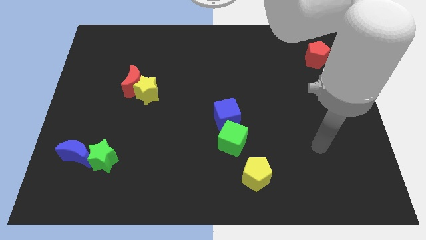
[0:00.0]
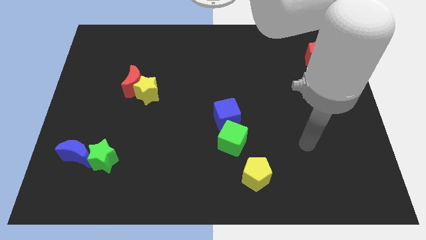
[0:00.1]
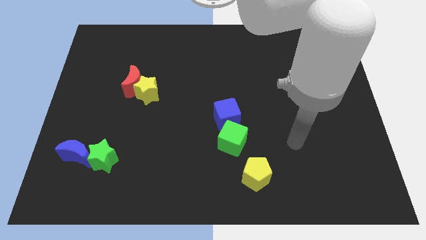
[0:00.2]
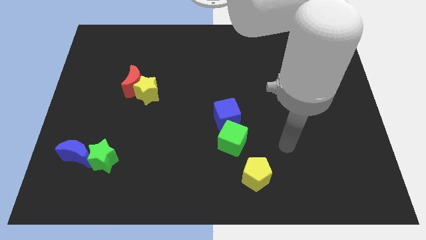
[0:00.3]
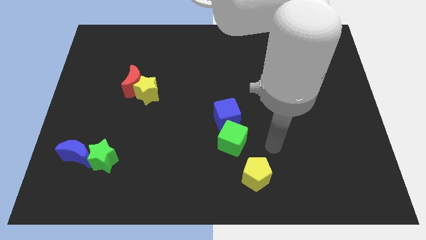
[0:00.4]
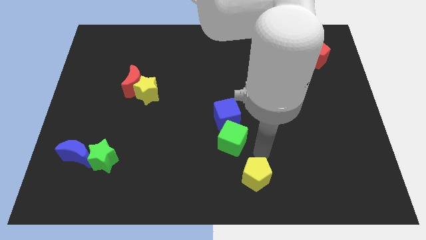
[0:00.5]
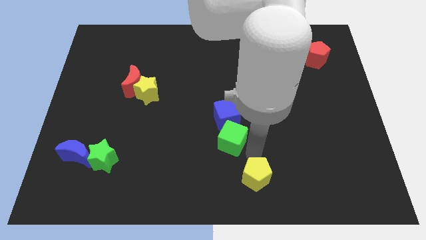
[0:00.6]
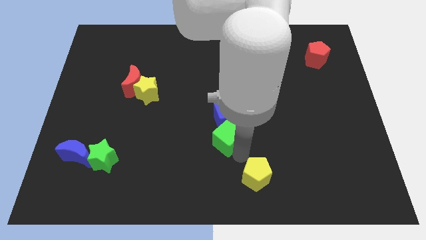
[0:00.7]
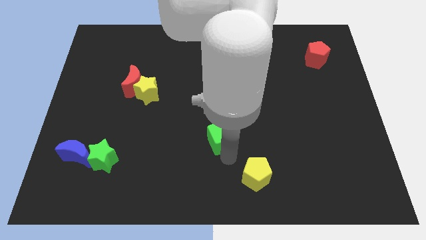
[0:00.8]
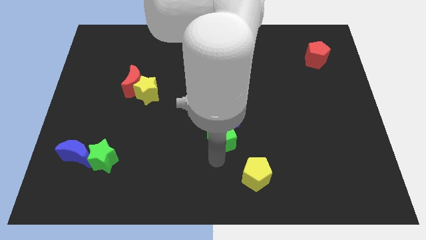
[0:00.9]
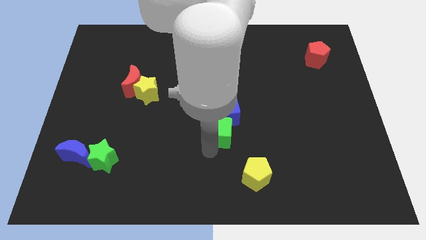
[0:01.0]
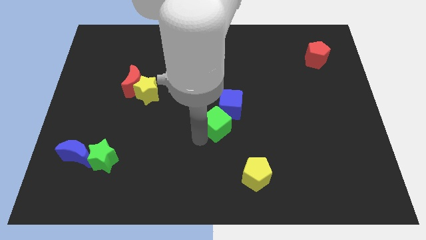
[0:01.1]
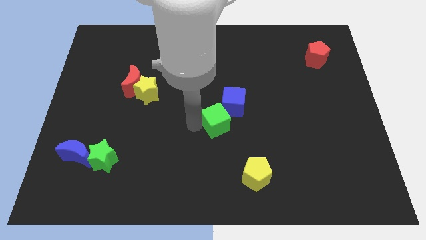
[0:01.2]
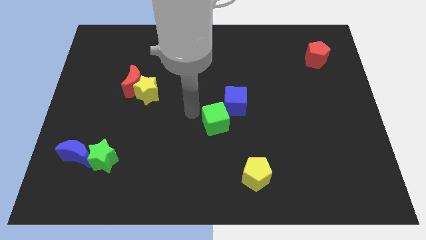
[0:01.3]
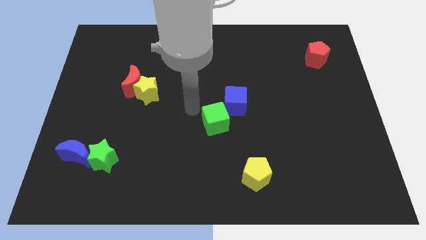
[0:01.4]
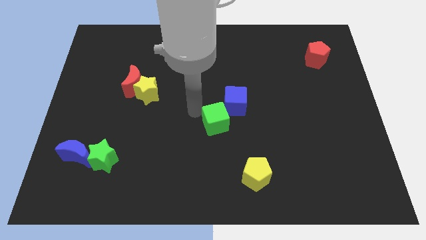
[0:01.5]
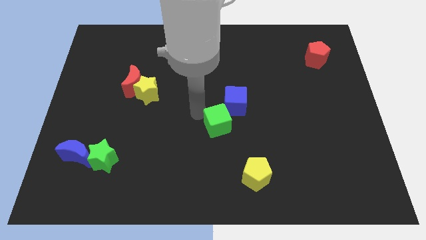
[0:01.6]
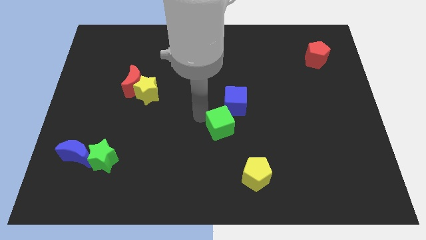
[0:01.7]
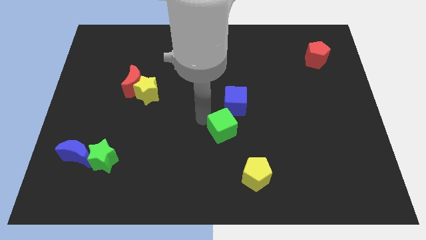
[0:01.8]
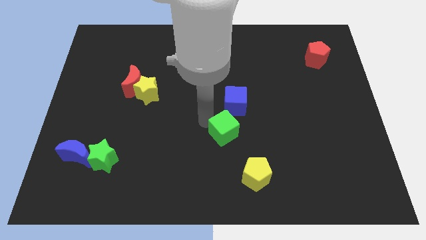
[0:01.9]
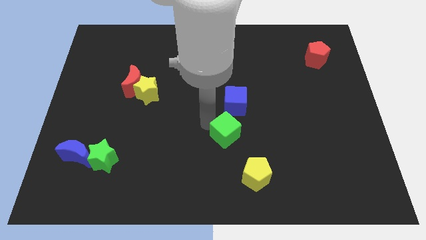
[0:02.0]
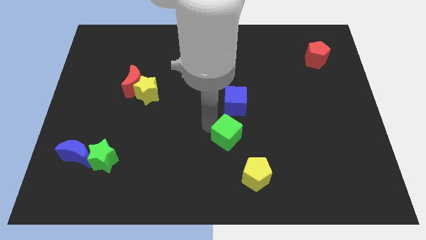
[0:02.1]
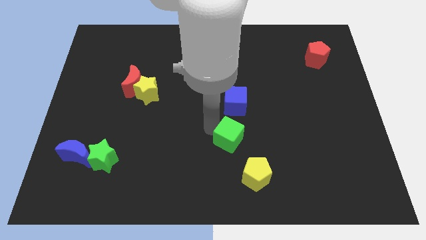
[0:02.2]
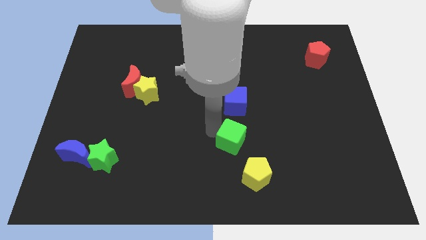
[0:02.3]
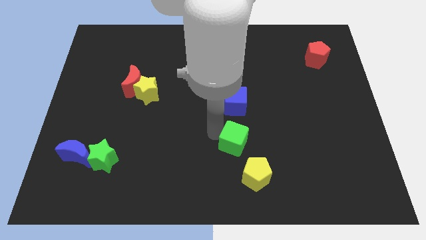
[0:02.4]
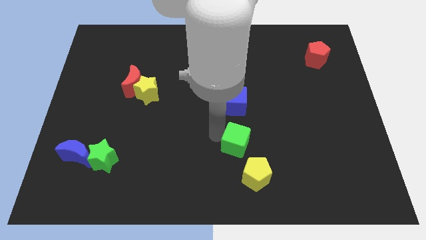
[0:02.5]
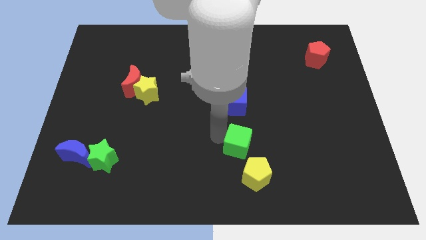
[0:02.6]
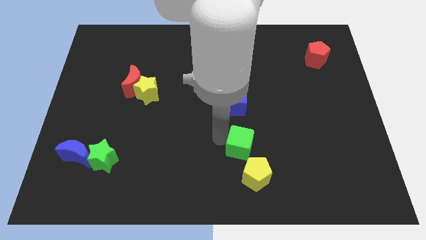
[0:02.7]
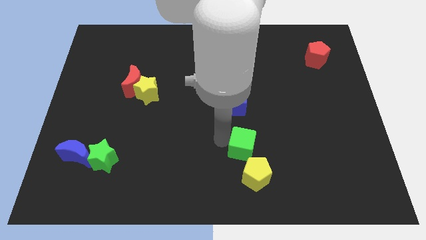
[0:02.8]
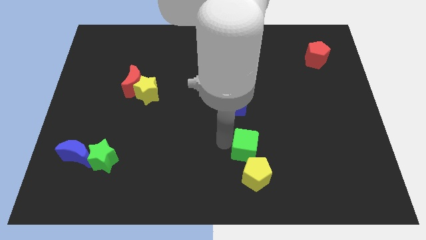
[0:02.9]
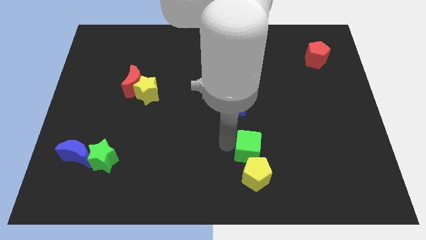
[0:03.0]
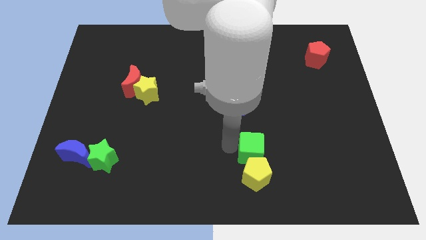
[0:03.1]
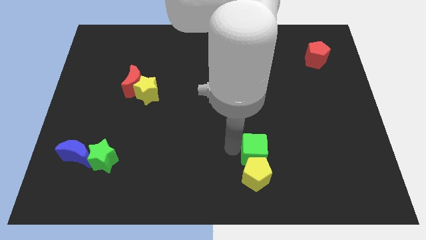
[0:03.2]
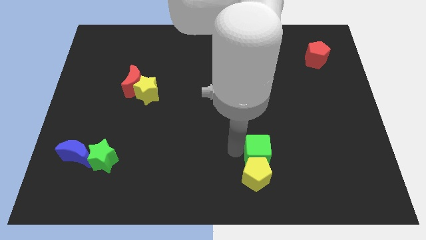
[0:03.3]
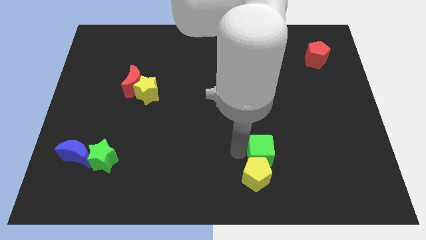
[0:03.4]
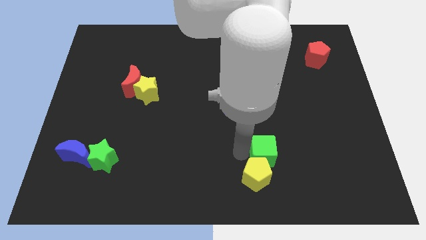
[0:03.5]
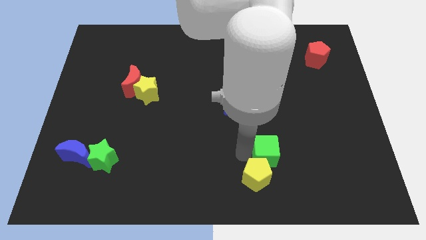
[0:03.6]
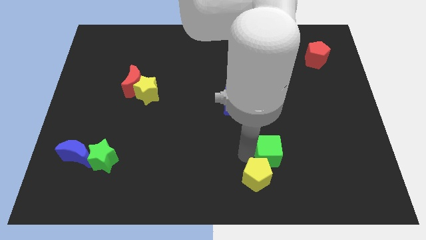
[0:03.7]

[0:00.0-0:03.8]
push the green cube to the right somewhat

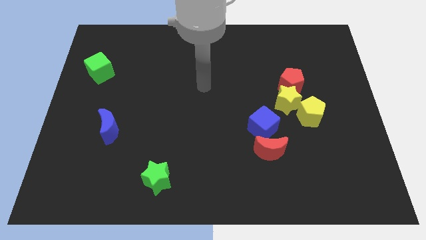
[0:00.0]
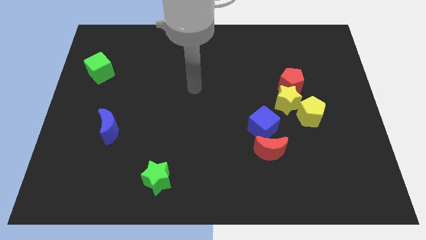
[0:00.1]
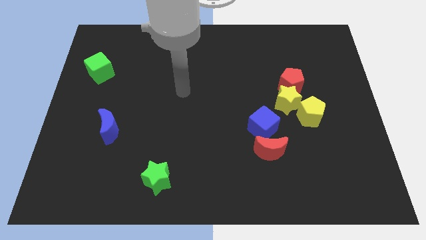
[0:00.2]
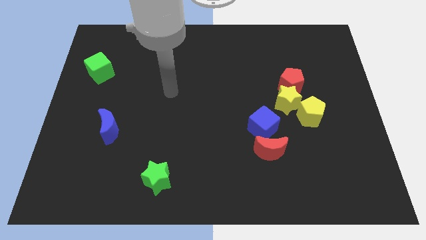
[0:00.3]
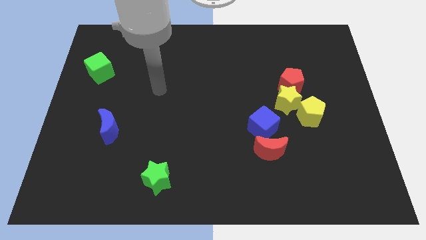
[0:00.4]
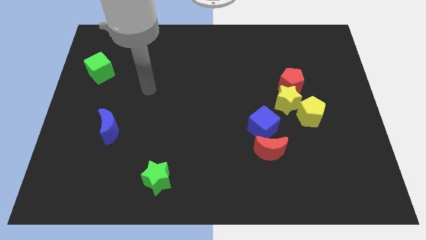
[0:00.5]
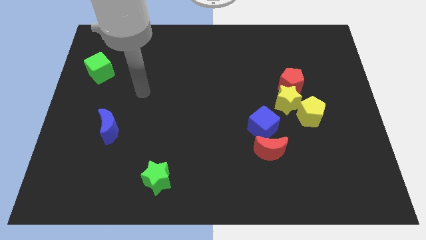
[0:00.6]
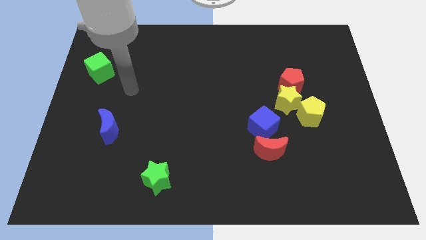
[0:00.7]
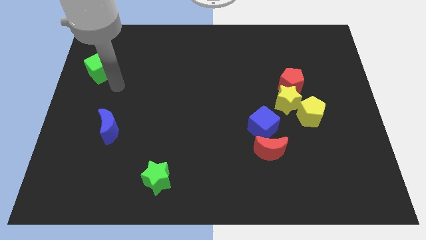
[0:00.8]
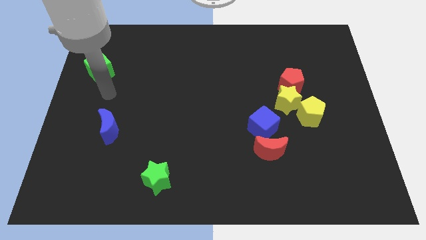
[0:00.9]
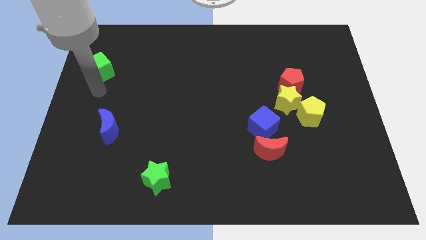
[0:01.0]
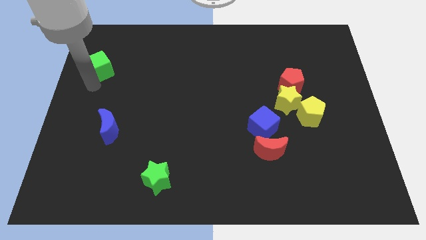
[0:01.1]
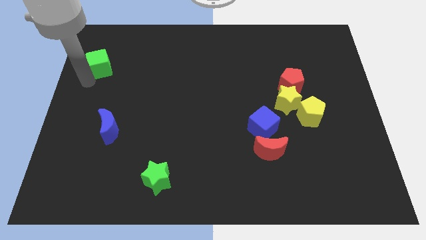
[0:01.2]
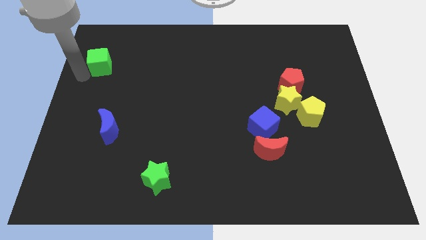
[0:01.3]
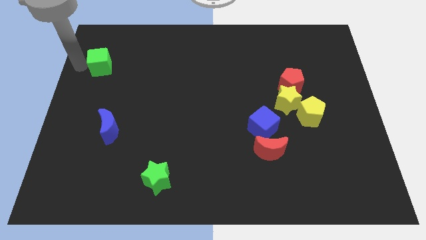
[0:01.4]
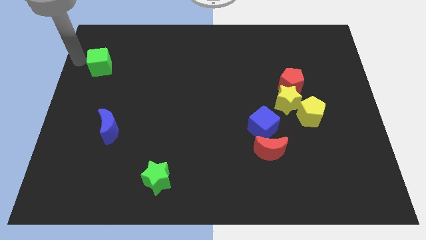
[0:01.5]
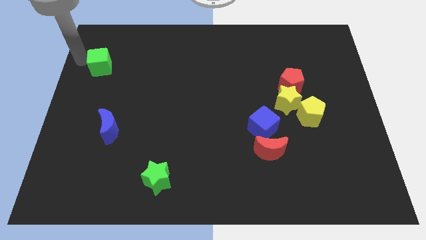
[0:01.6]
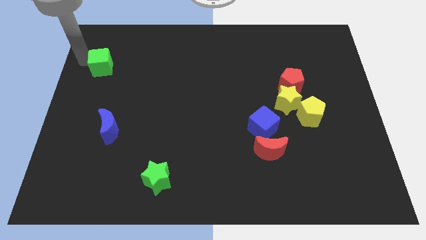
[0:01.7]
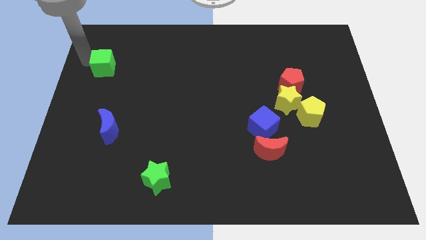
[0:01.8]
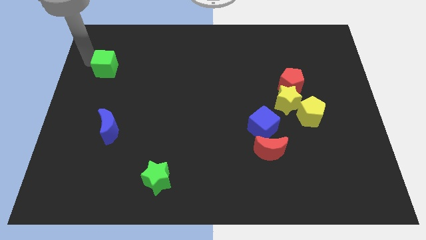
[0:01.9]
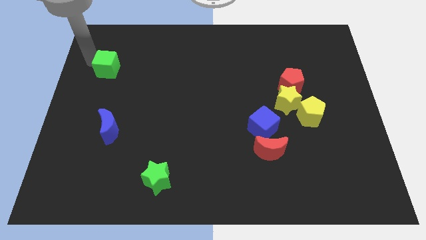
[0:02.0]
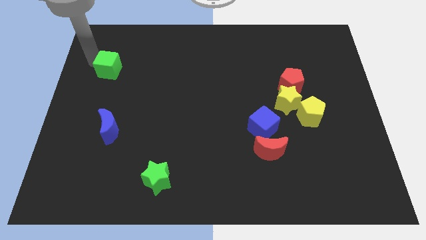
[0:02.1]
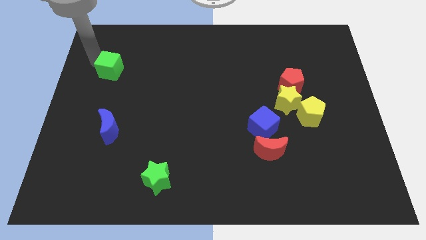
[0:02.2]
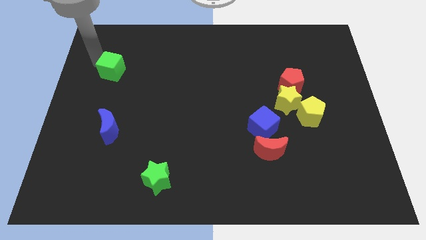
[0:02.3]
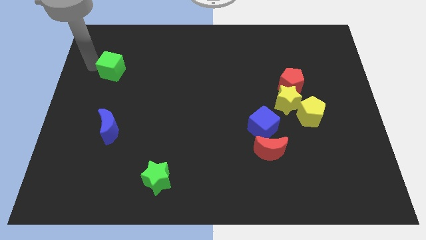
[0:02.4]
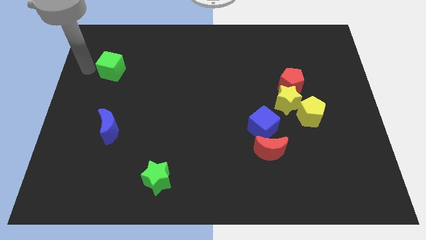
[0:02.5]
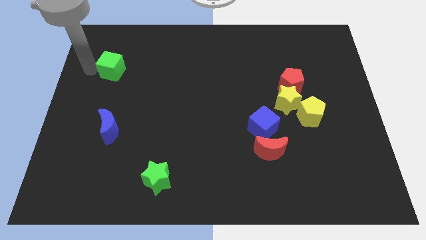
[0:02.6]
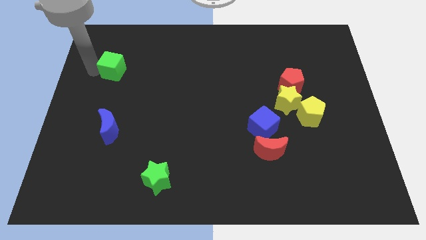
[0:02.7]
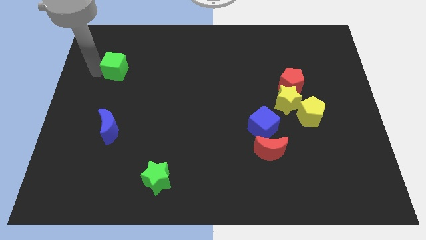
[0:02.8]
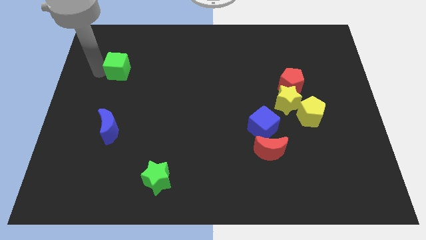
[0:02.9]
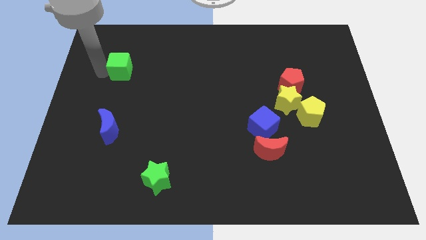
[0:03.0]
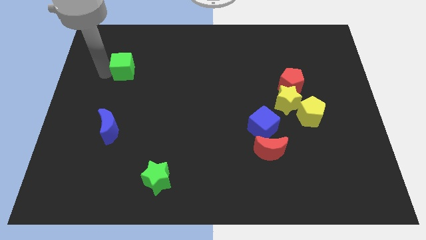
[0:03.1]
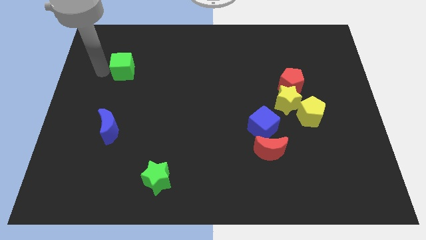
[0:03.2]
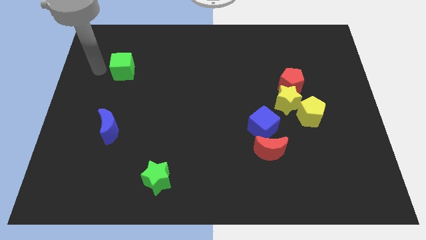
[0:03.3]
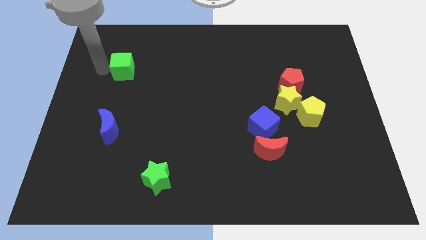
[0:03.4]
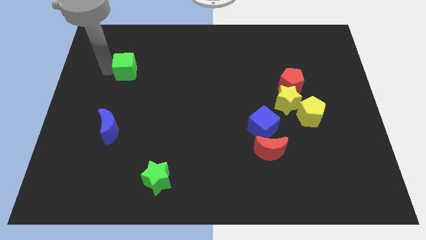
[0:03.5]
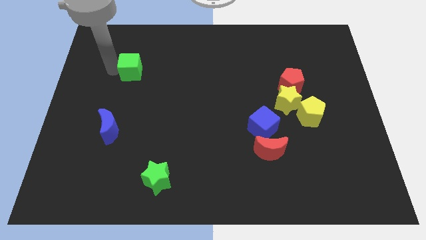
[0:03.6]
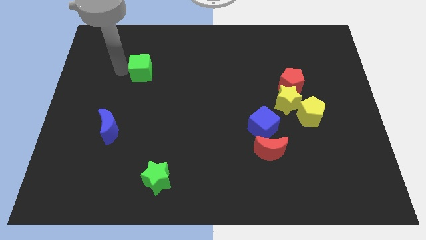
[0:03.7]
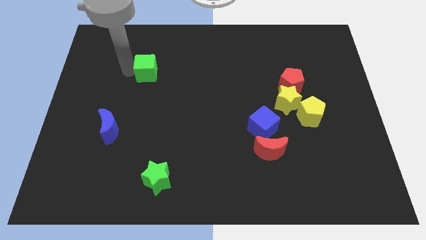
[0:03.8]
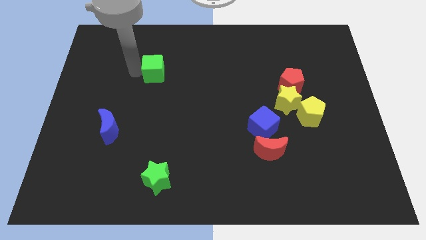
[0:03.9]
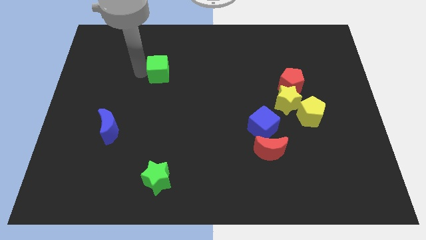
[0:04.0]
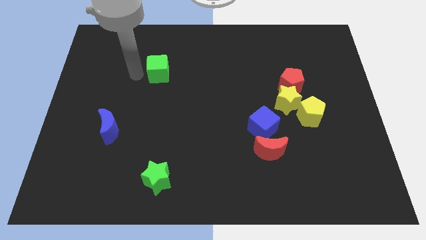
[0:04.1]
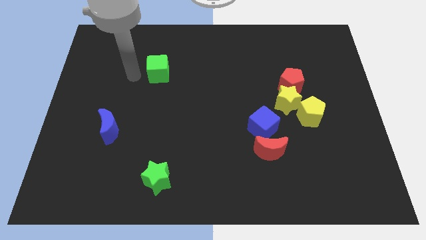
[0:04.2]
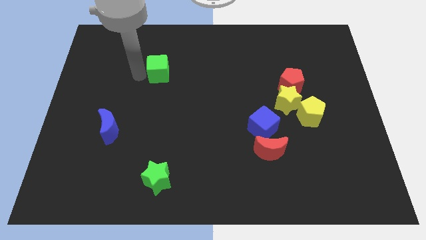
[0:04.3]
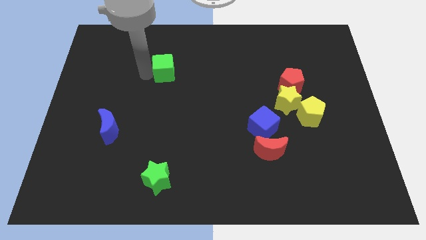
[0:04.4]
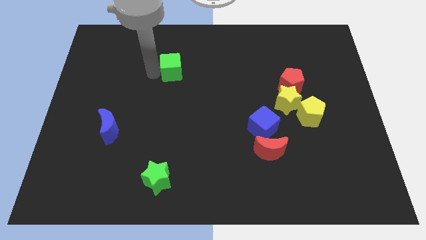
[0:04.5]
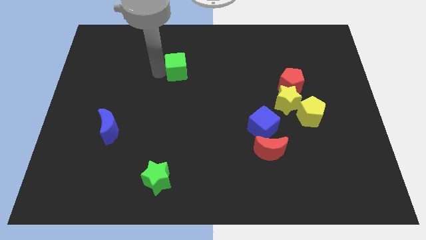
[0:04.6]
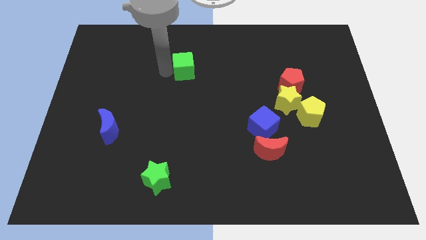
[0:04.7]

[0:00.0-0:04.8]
move the green cube right
